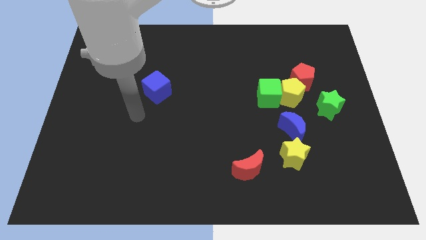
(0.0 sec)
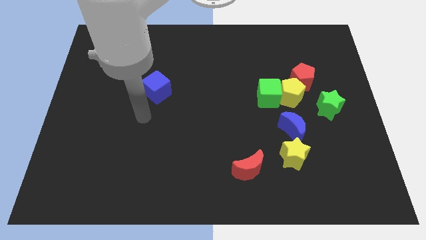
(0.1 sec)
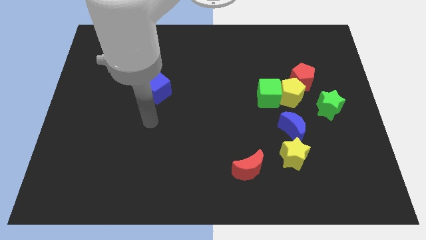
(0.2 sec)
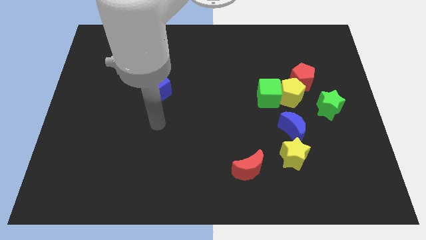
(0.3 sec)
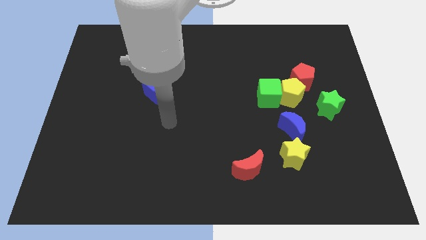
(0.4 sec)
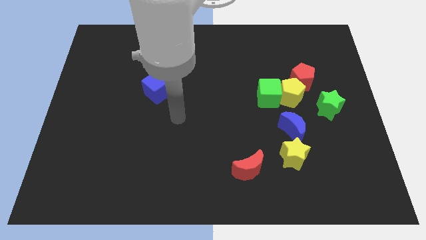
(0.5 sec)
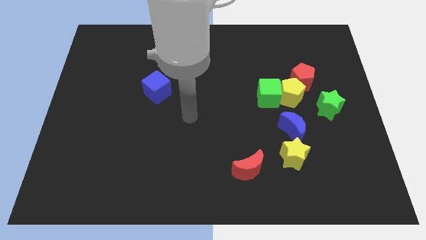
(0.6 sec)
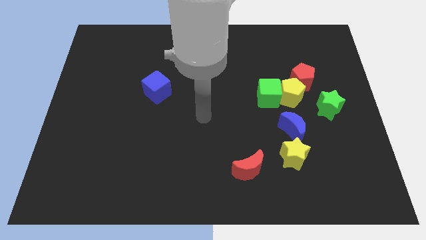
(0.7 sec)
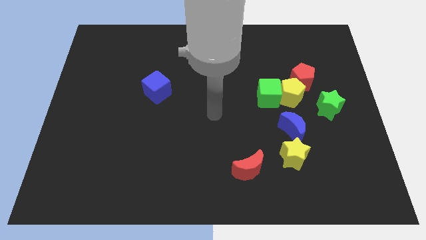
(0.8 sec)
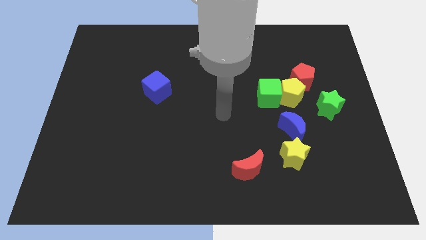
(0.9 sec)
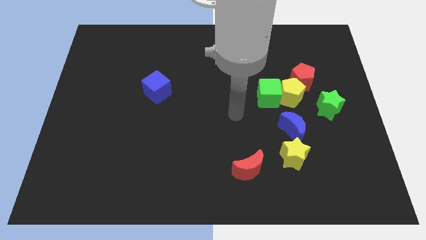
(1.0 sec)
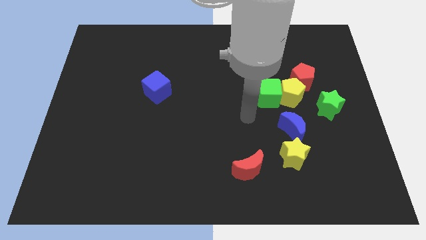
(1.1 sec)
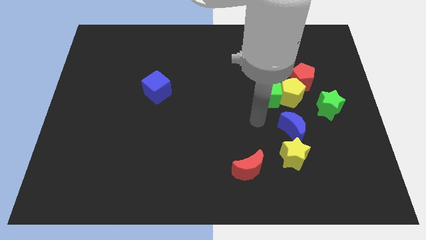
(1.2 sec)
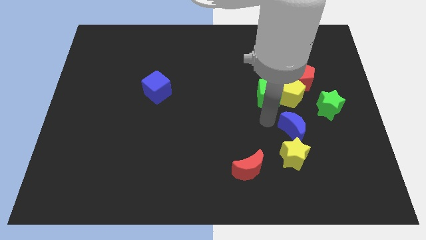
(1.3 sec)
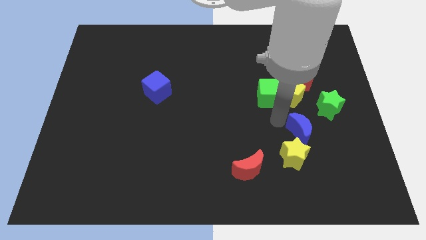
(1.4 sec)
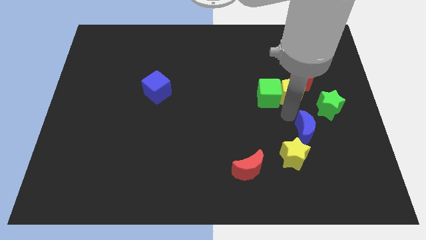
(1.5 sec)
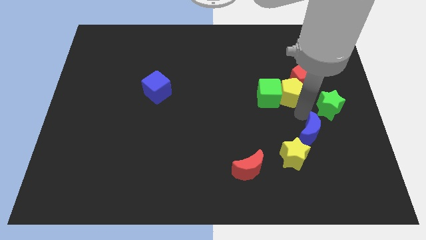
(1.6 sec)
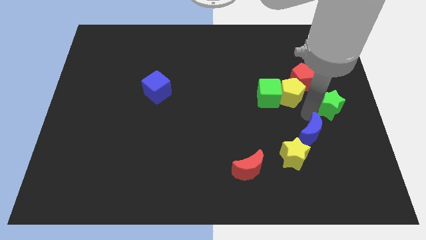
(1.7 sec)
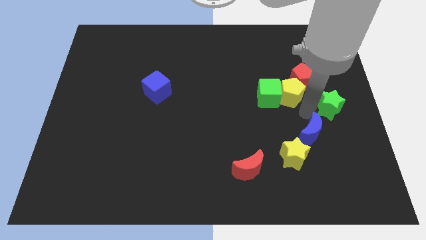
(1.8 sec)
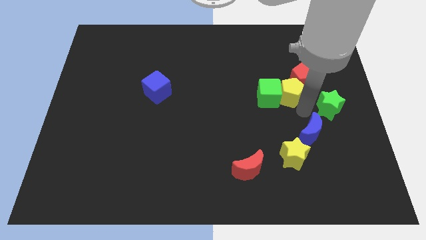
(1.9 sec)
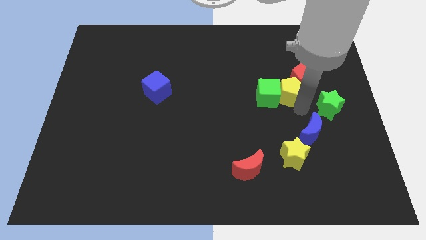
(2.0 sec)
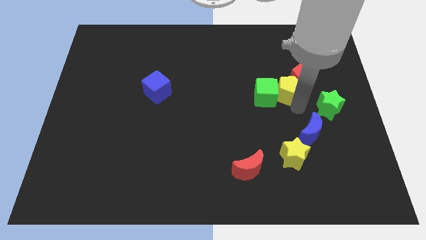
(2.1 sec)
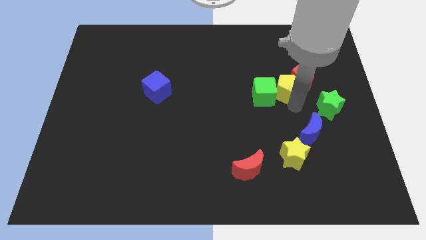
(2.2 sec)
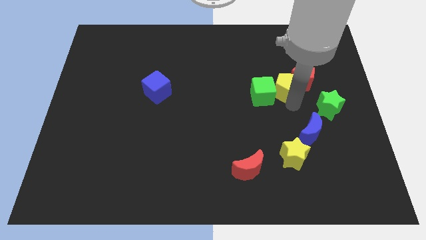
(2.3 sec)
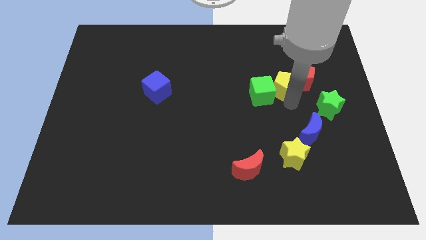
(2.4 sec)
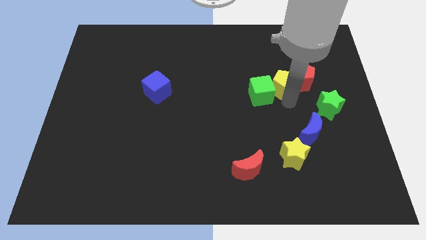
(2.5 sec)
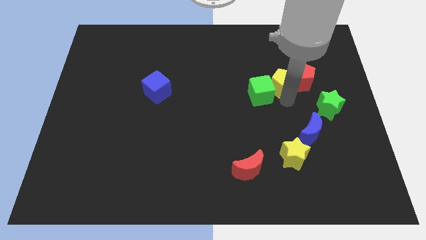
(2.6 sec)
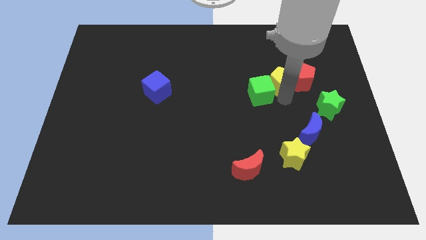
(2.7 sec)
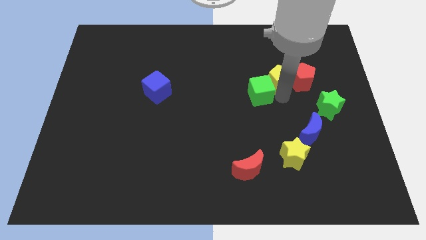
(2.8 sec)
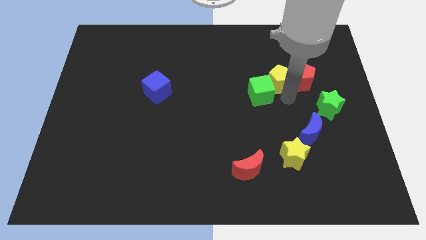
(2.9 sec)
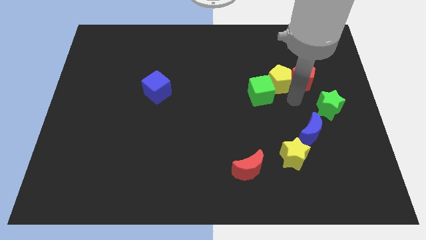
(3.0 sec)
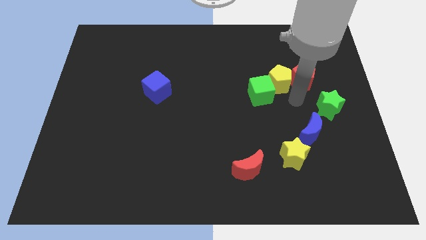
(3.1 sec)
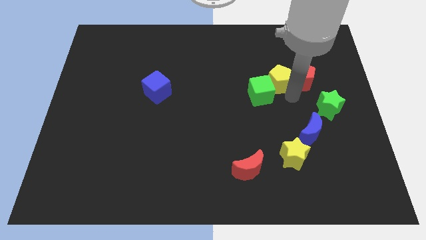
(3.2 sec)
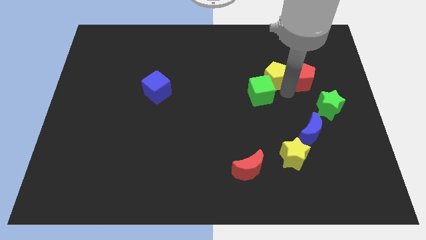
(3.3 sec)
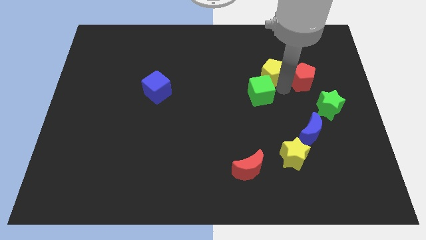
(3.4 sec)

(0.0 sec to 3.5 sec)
pull the yellow pentagon apart from the group

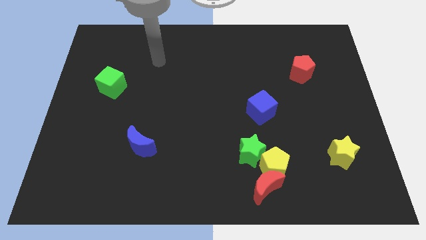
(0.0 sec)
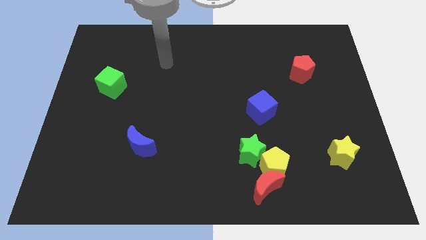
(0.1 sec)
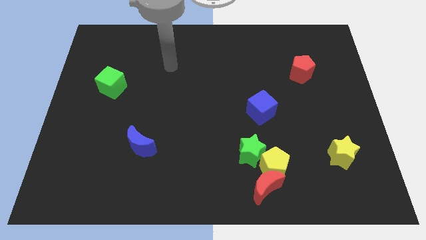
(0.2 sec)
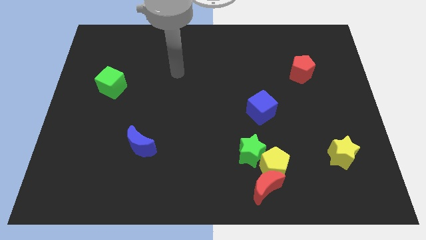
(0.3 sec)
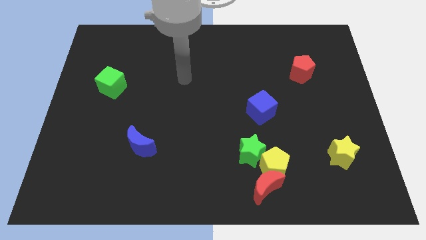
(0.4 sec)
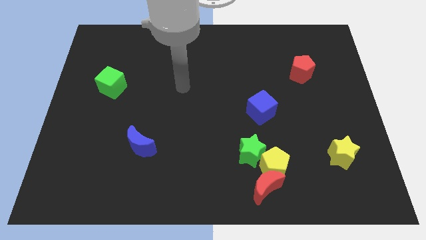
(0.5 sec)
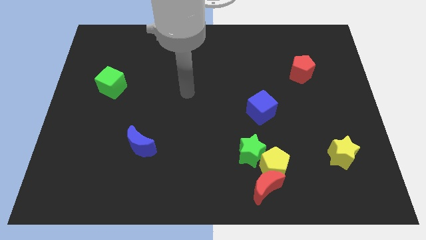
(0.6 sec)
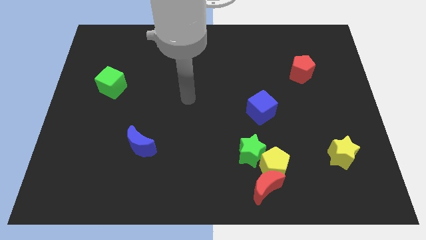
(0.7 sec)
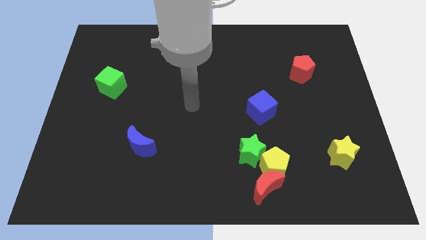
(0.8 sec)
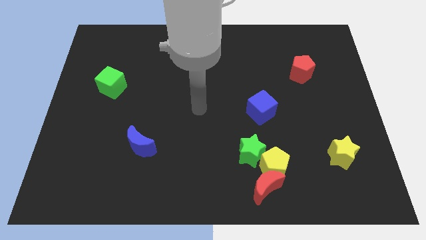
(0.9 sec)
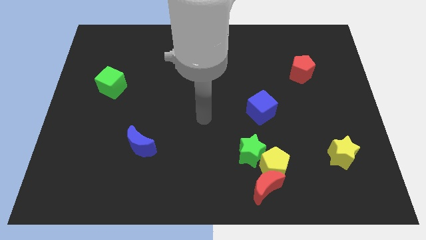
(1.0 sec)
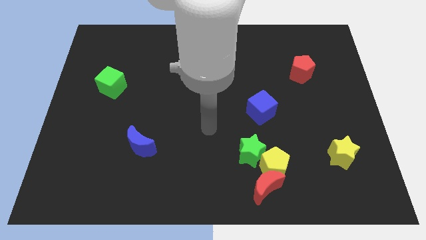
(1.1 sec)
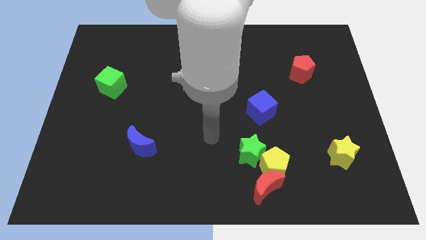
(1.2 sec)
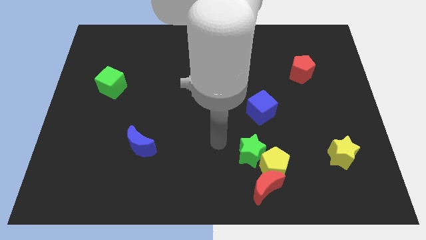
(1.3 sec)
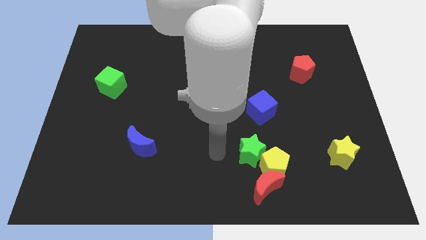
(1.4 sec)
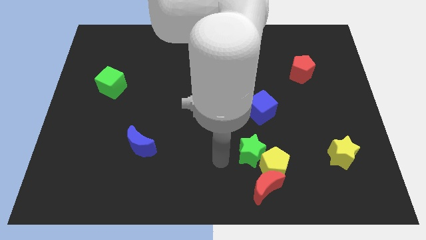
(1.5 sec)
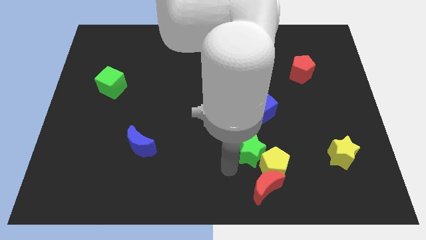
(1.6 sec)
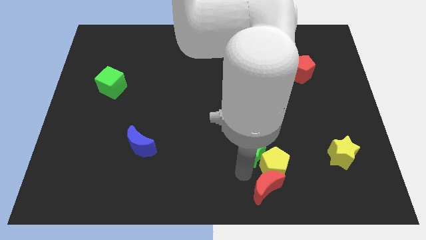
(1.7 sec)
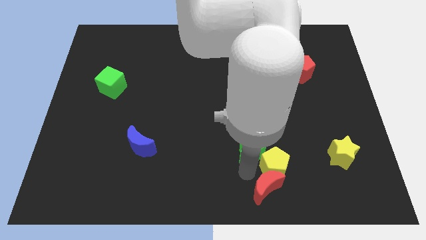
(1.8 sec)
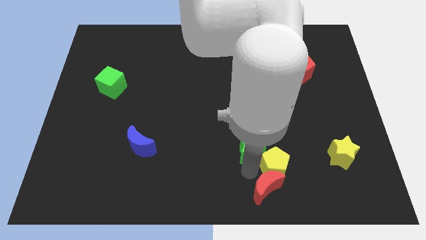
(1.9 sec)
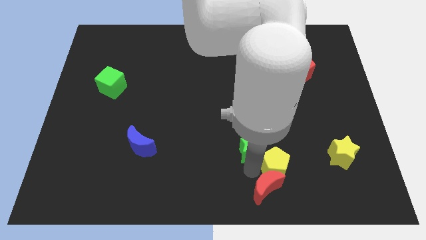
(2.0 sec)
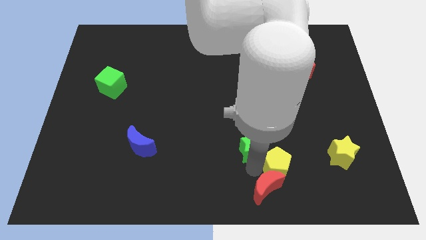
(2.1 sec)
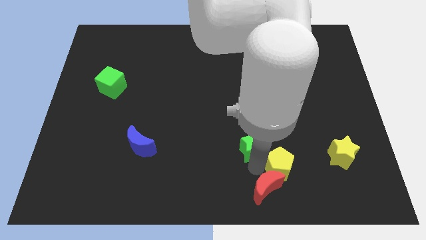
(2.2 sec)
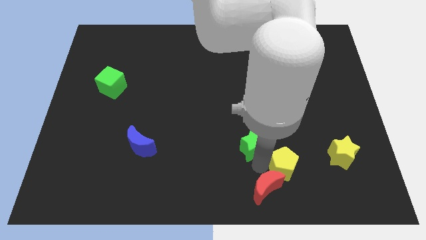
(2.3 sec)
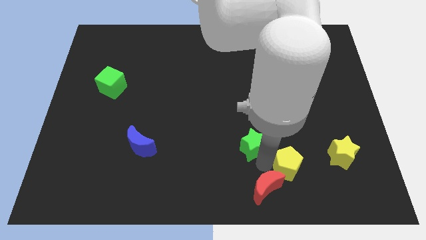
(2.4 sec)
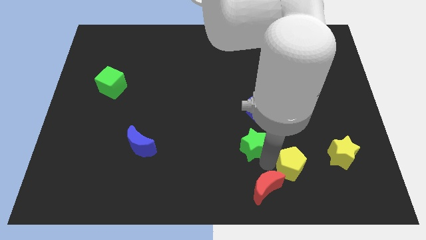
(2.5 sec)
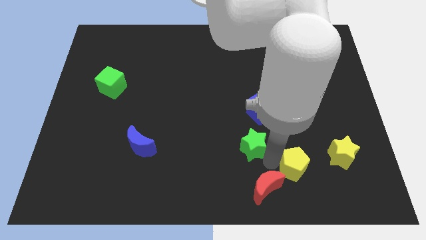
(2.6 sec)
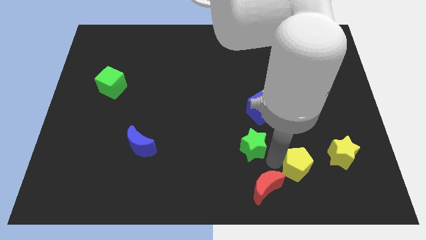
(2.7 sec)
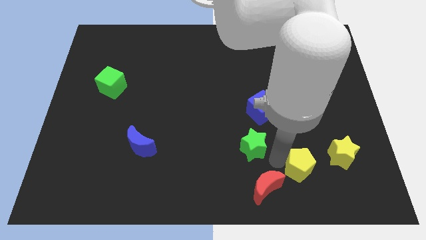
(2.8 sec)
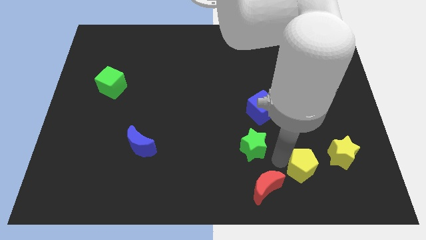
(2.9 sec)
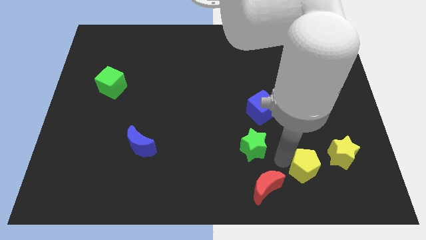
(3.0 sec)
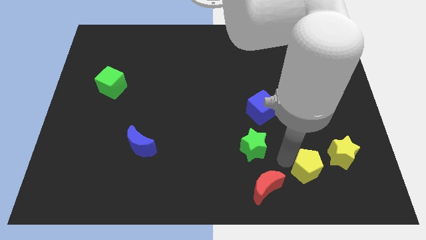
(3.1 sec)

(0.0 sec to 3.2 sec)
move the yellow pentagon away from the red moon and green star

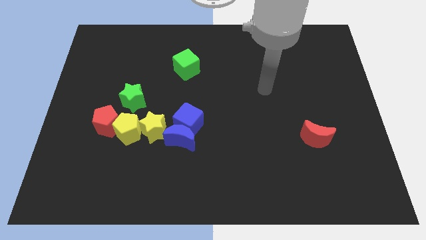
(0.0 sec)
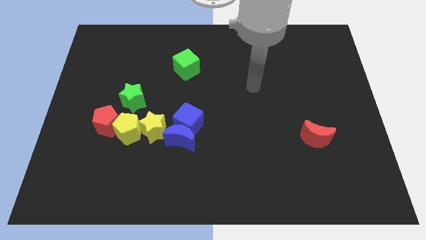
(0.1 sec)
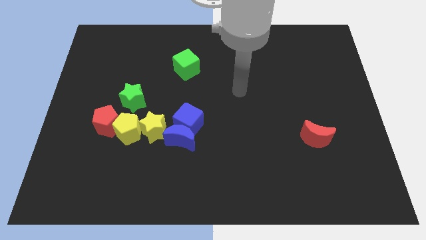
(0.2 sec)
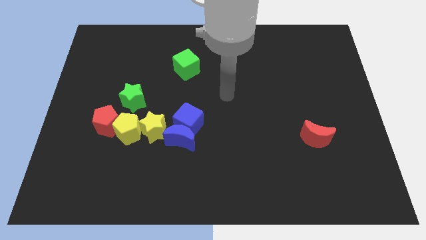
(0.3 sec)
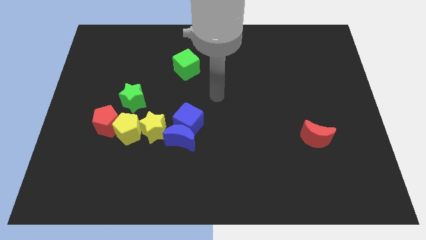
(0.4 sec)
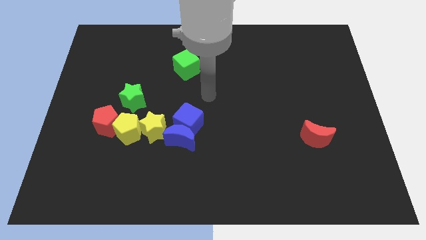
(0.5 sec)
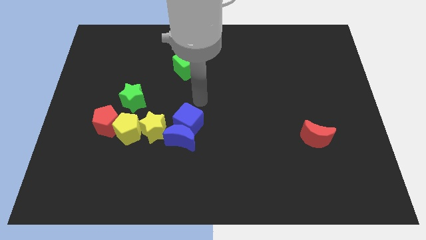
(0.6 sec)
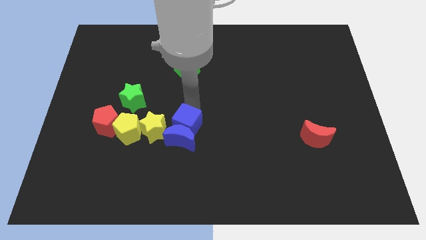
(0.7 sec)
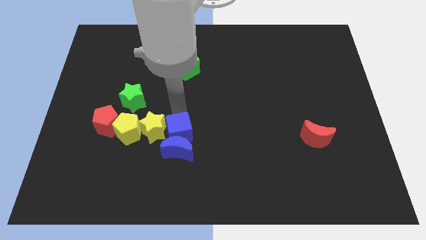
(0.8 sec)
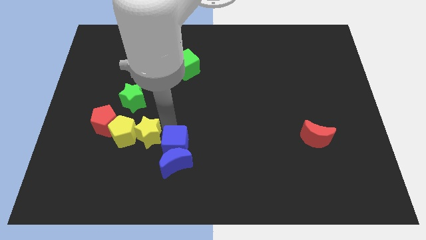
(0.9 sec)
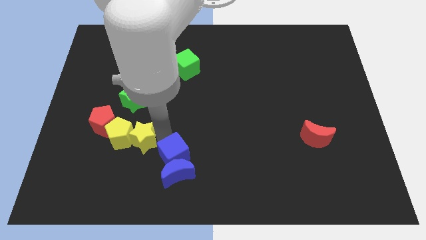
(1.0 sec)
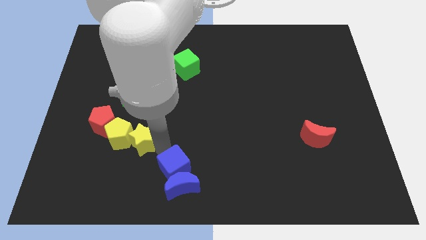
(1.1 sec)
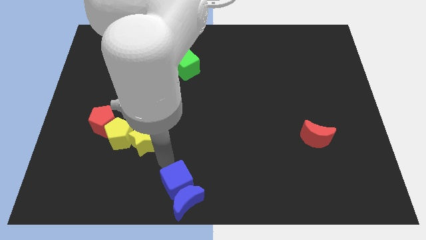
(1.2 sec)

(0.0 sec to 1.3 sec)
move the blue moon away from the blue cube and yellow star

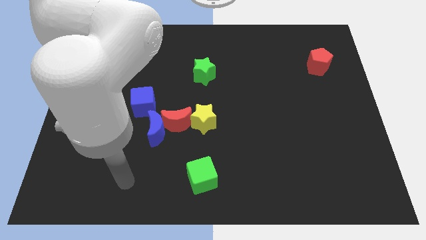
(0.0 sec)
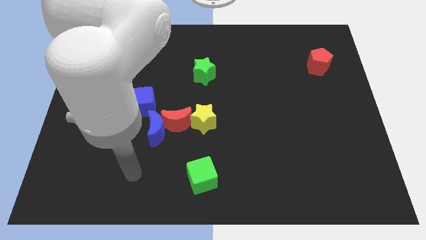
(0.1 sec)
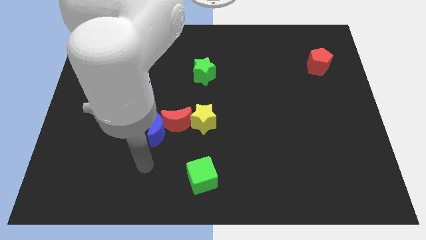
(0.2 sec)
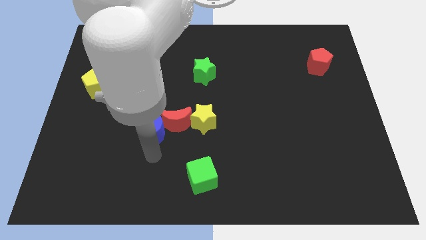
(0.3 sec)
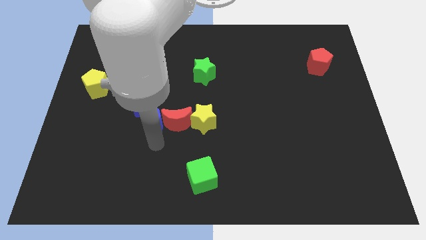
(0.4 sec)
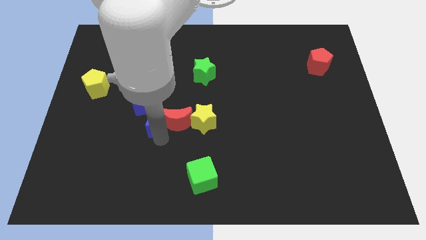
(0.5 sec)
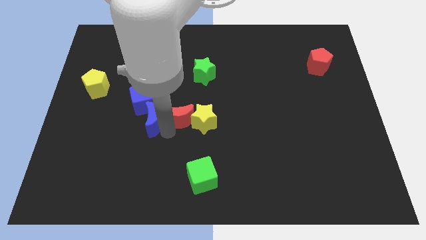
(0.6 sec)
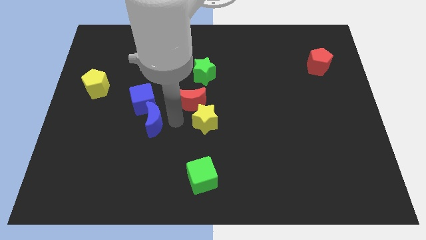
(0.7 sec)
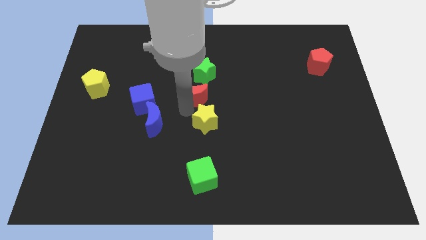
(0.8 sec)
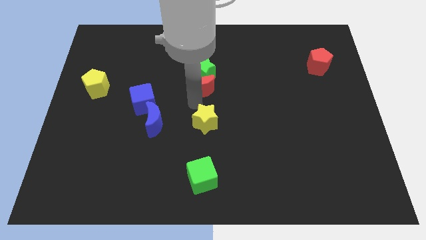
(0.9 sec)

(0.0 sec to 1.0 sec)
pull the yellow star apart from the red moon

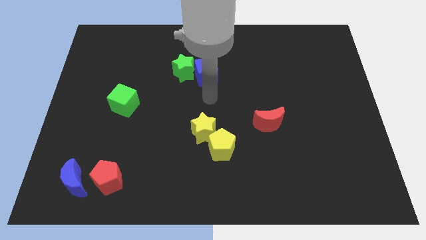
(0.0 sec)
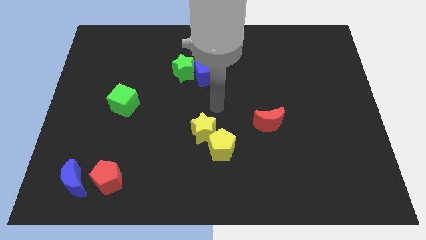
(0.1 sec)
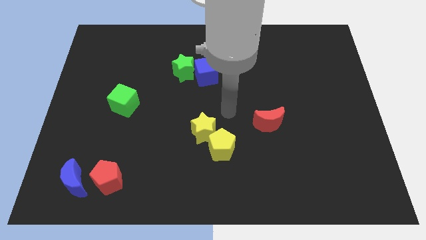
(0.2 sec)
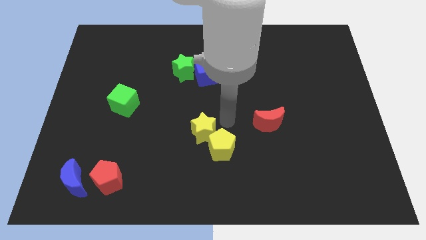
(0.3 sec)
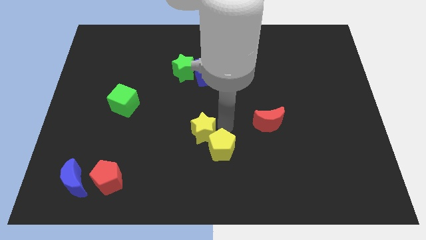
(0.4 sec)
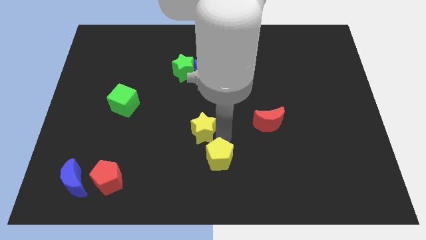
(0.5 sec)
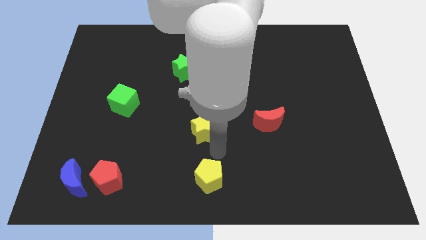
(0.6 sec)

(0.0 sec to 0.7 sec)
separate the yellow star from the yellow pentagon
